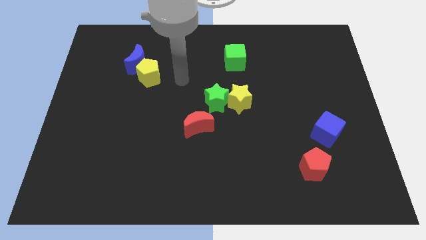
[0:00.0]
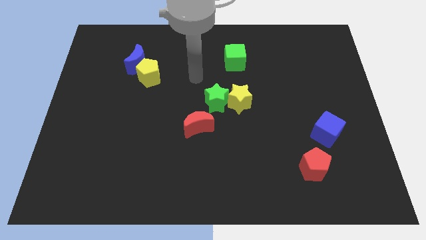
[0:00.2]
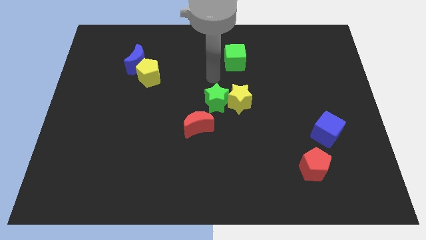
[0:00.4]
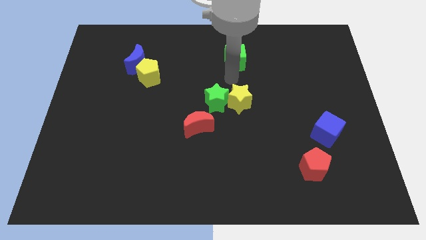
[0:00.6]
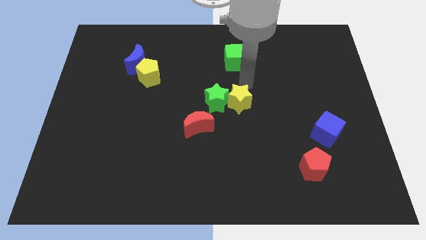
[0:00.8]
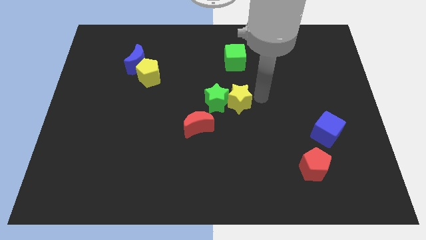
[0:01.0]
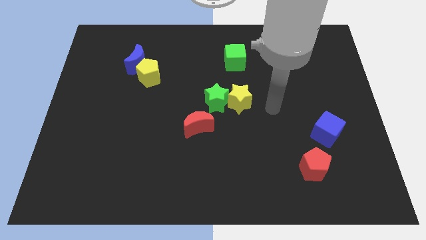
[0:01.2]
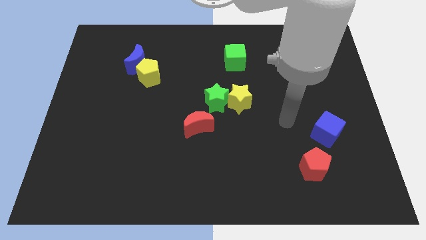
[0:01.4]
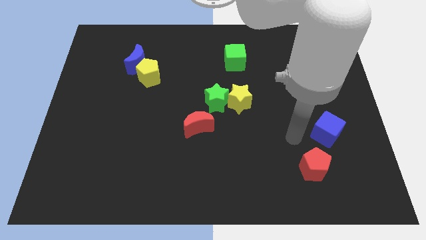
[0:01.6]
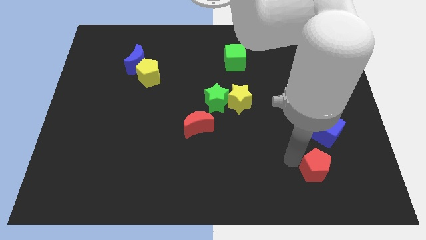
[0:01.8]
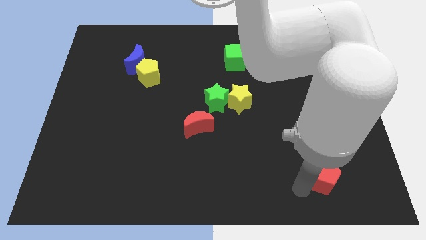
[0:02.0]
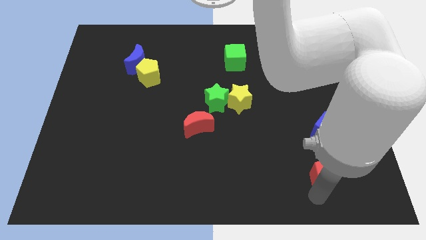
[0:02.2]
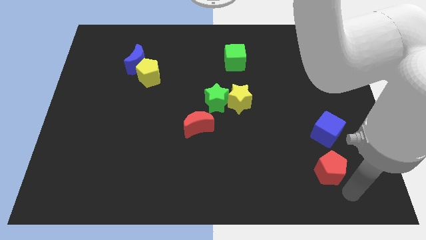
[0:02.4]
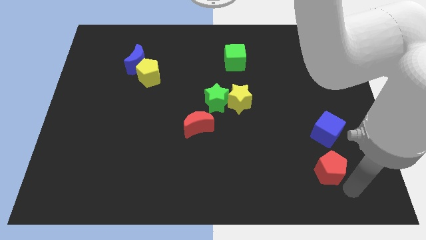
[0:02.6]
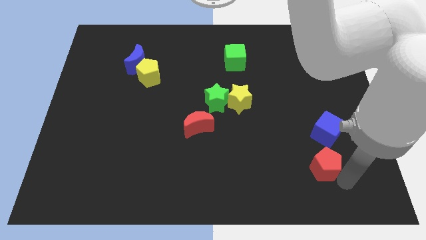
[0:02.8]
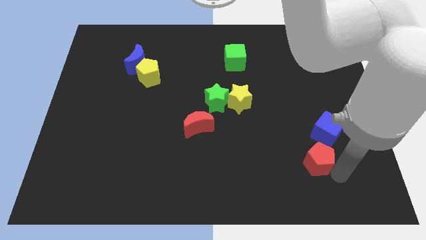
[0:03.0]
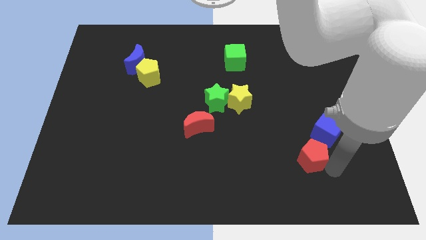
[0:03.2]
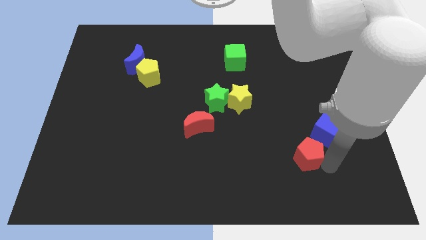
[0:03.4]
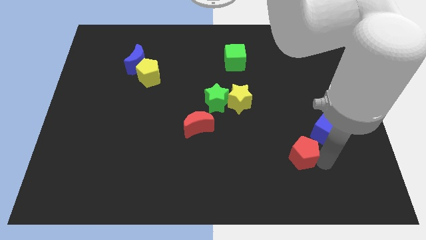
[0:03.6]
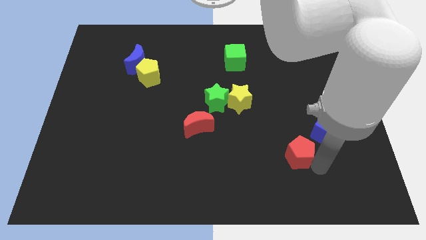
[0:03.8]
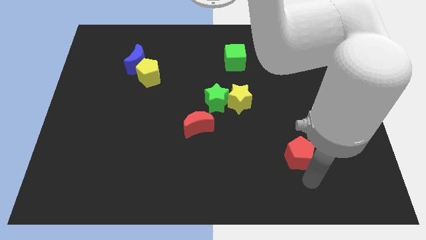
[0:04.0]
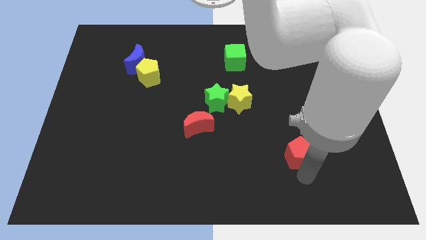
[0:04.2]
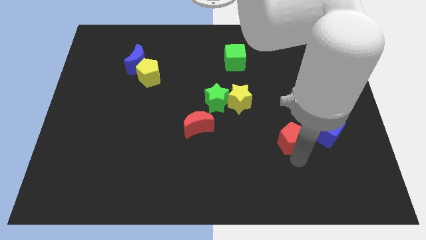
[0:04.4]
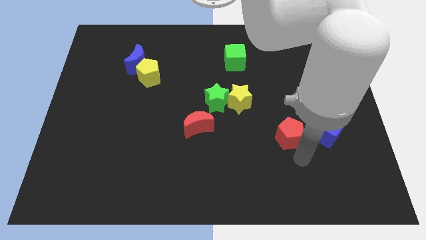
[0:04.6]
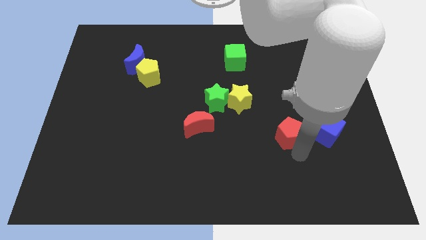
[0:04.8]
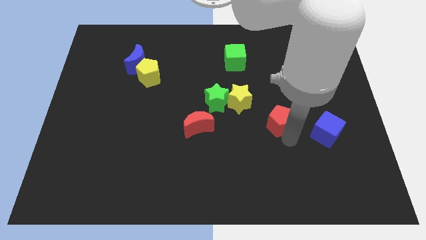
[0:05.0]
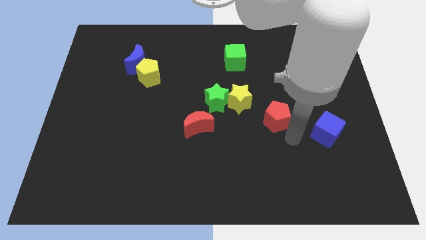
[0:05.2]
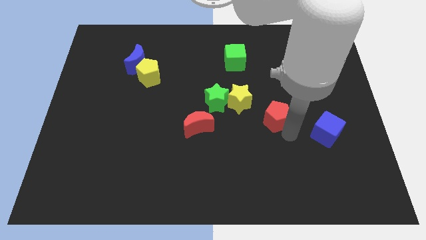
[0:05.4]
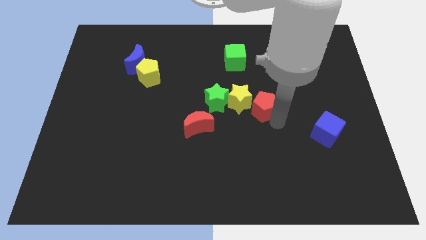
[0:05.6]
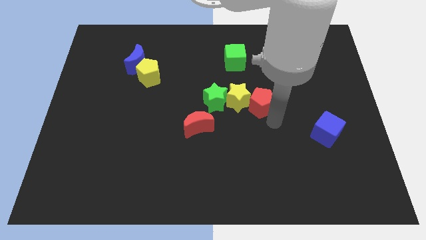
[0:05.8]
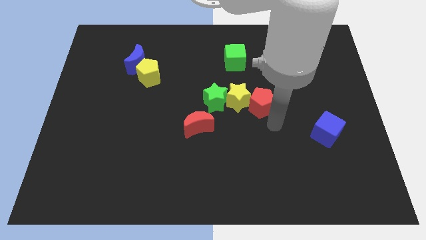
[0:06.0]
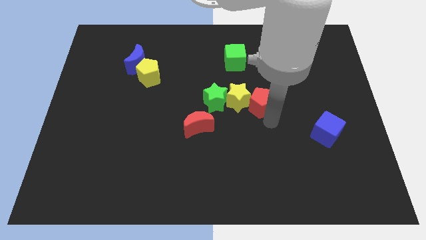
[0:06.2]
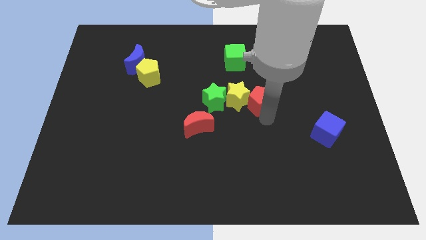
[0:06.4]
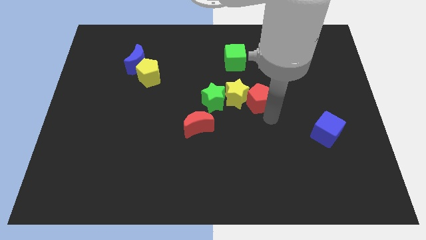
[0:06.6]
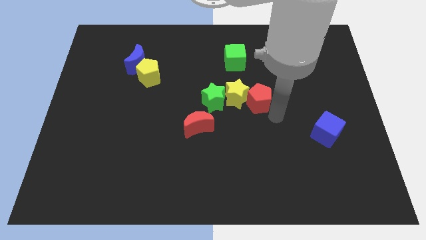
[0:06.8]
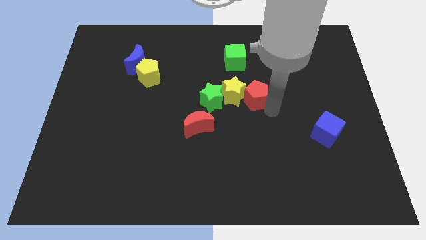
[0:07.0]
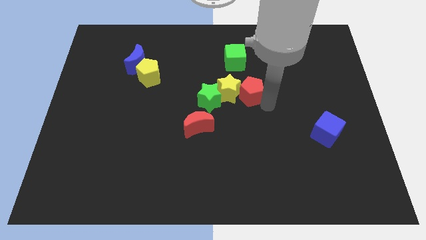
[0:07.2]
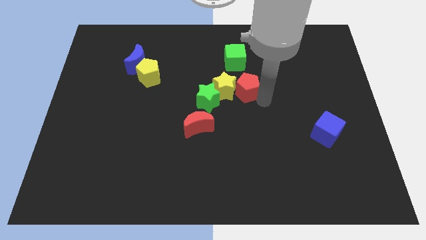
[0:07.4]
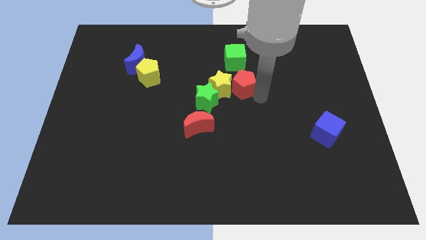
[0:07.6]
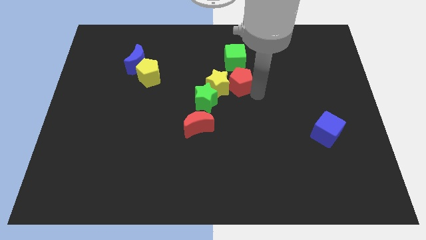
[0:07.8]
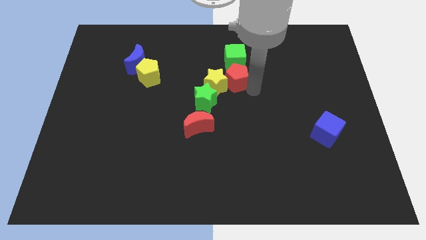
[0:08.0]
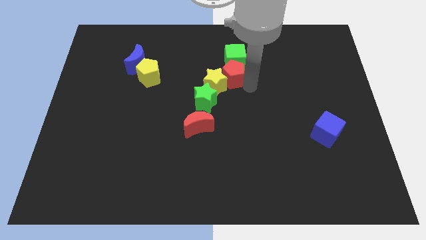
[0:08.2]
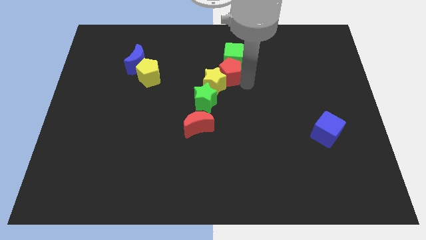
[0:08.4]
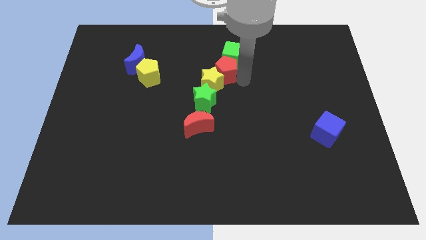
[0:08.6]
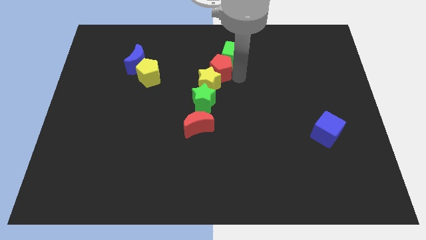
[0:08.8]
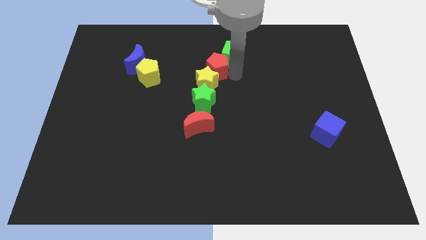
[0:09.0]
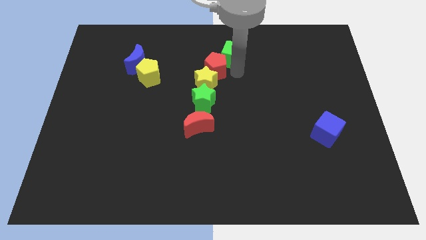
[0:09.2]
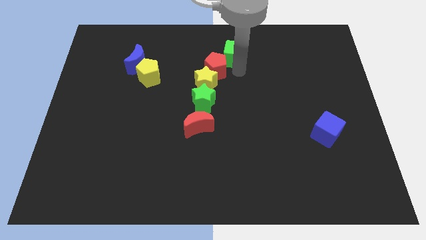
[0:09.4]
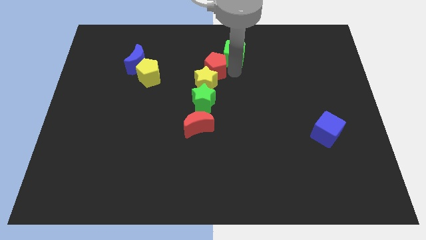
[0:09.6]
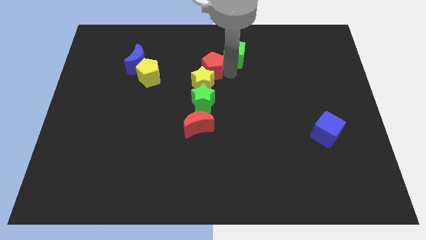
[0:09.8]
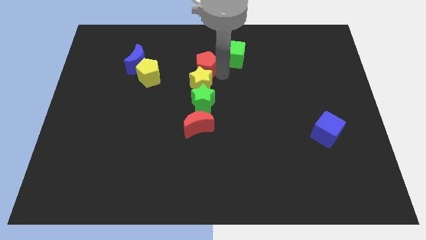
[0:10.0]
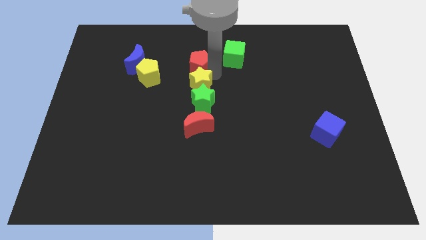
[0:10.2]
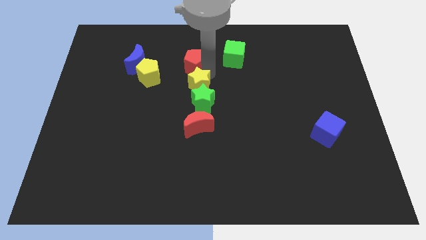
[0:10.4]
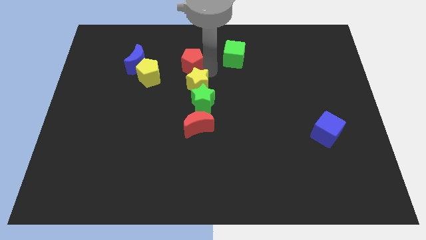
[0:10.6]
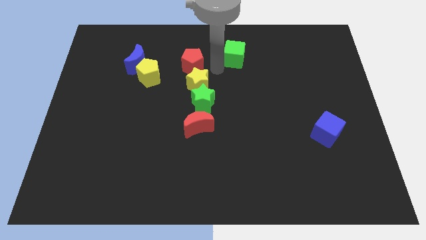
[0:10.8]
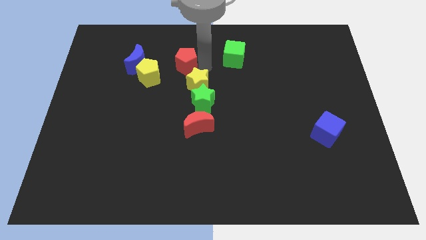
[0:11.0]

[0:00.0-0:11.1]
slide the red pentagon diagonally up and to the right of the yellow pentagon

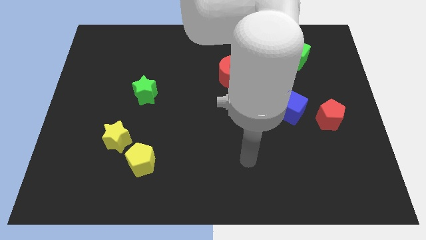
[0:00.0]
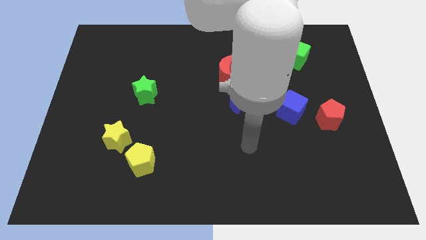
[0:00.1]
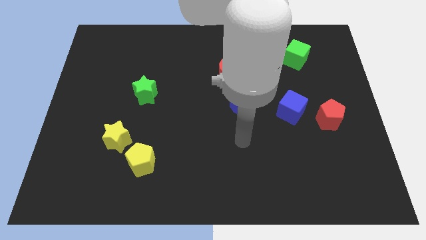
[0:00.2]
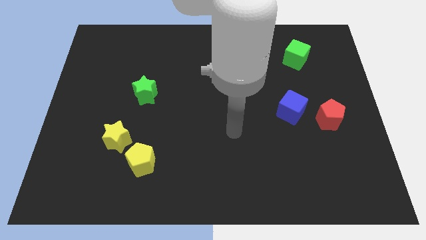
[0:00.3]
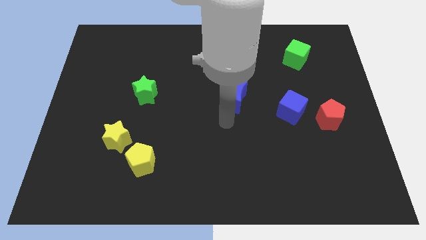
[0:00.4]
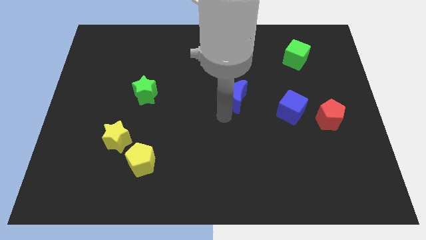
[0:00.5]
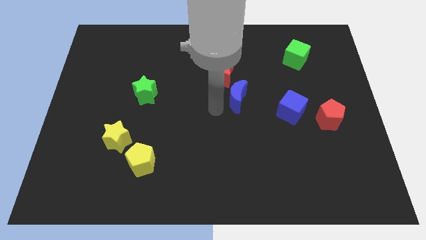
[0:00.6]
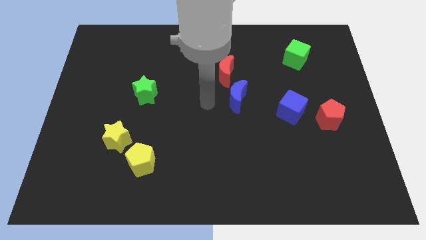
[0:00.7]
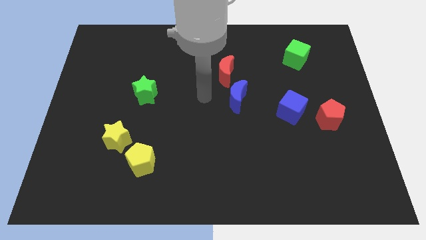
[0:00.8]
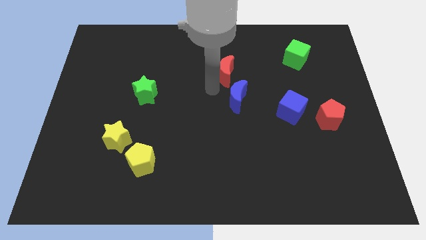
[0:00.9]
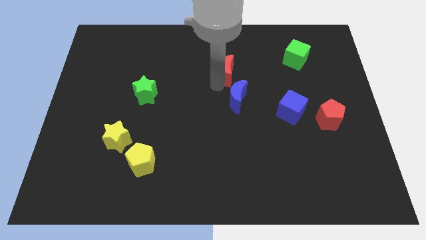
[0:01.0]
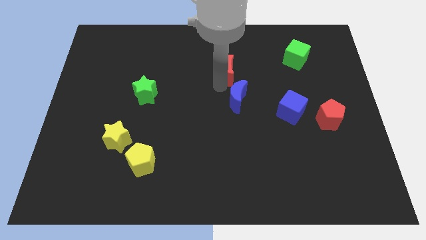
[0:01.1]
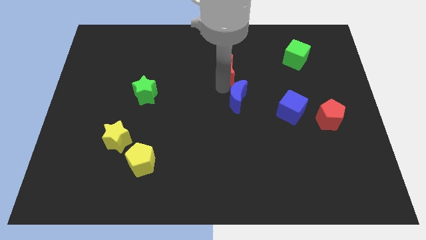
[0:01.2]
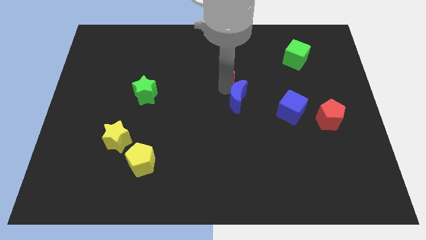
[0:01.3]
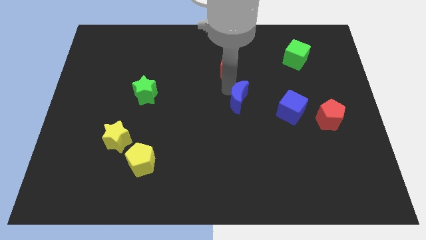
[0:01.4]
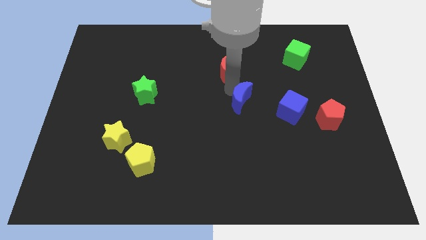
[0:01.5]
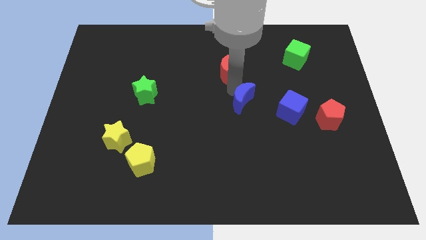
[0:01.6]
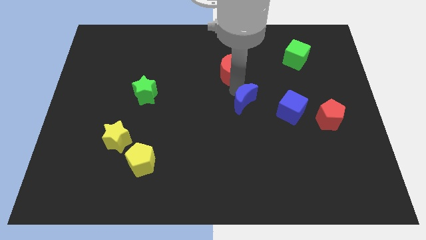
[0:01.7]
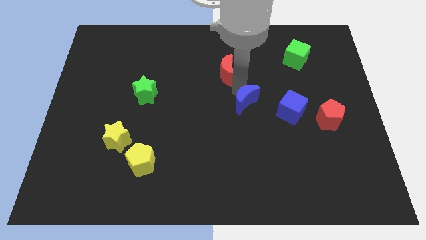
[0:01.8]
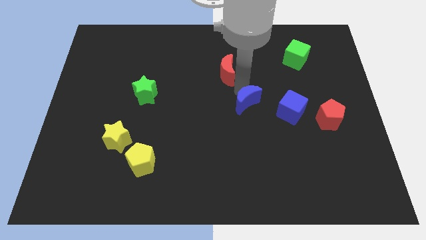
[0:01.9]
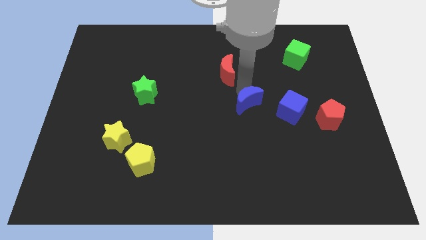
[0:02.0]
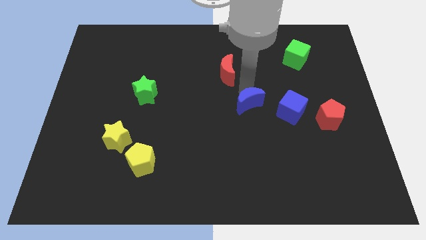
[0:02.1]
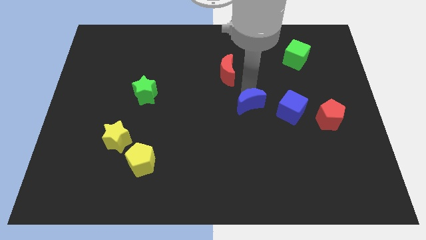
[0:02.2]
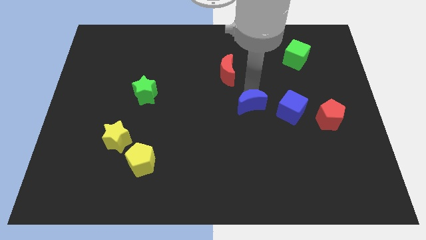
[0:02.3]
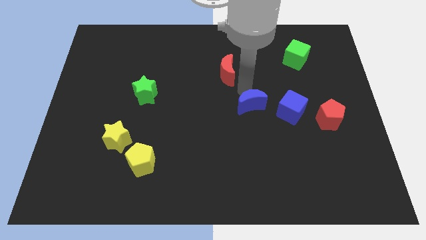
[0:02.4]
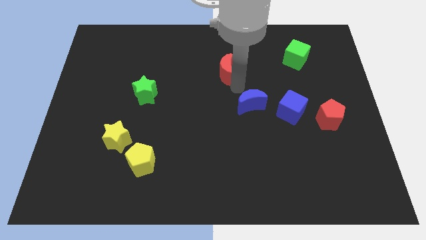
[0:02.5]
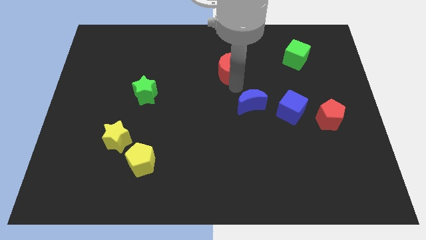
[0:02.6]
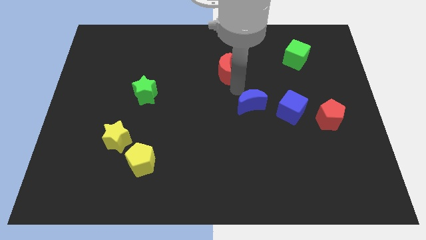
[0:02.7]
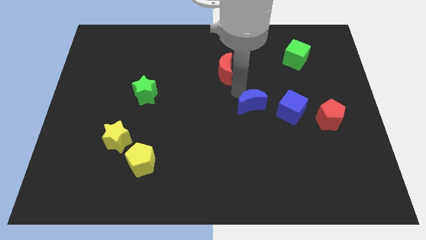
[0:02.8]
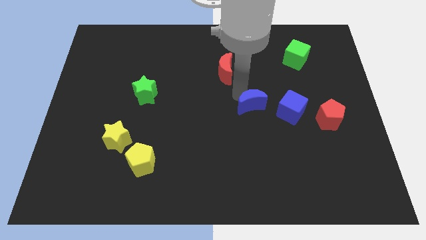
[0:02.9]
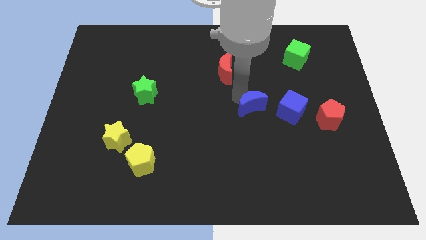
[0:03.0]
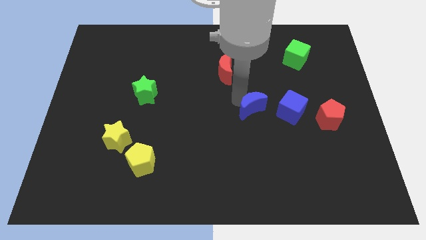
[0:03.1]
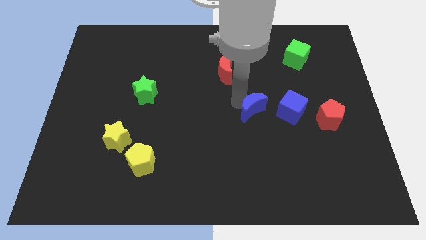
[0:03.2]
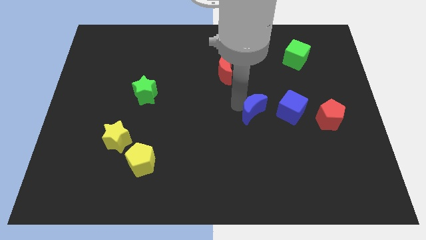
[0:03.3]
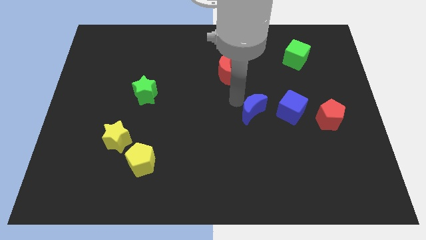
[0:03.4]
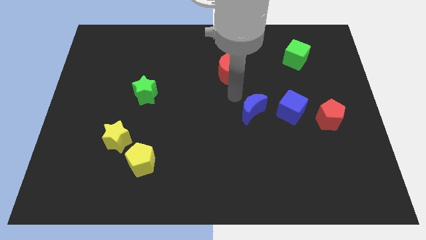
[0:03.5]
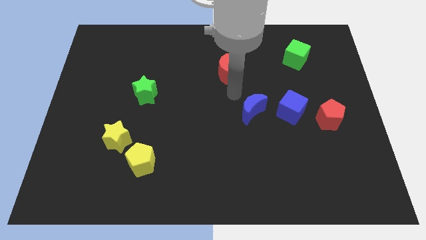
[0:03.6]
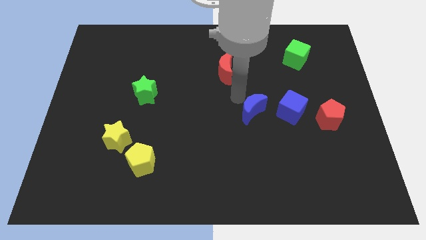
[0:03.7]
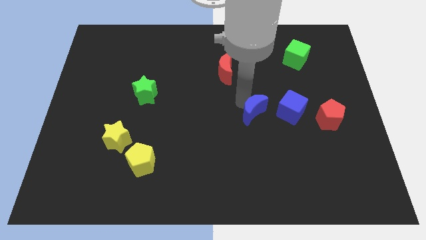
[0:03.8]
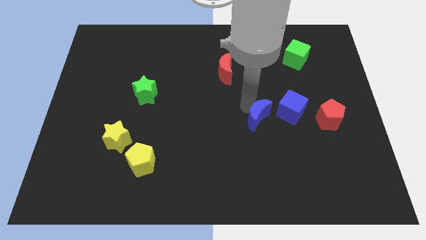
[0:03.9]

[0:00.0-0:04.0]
slide the blue moon to the bottom left of the blue cube
